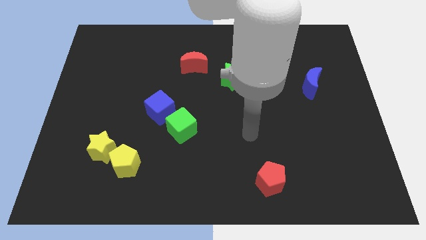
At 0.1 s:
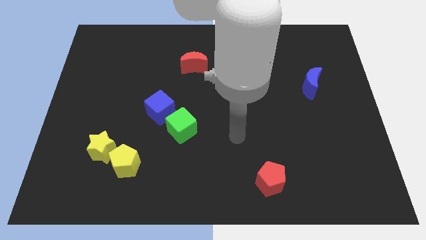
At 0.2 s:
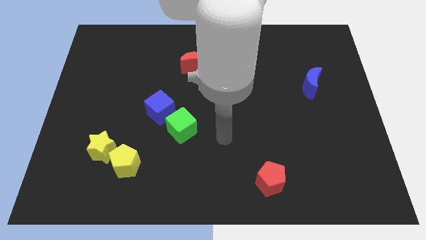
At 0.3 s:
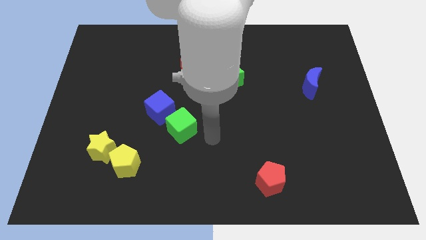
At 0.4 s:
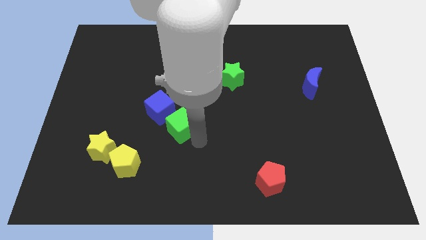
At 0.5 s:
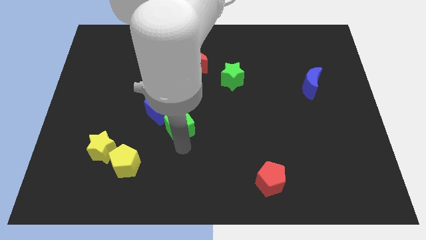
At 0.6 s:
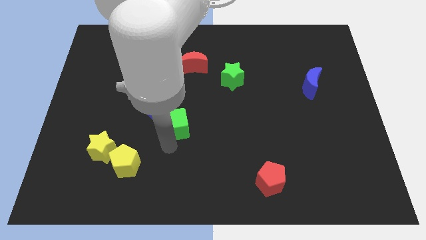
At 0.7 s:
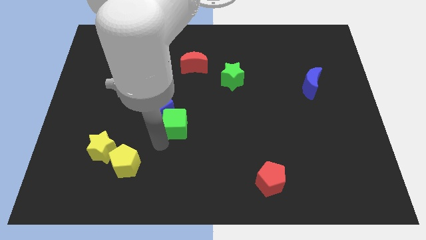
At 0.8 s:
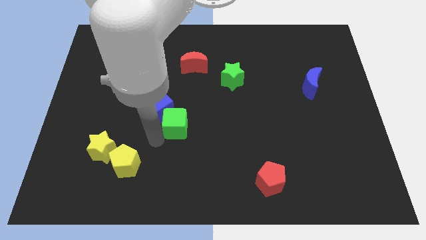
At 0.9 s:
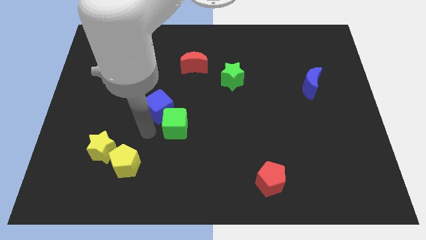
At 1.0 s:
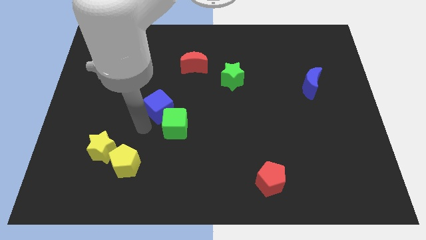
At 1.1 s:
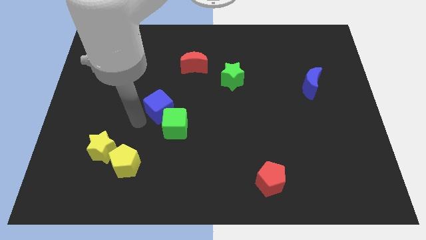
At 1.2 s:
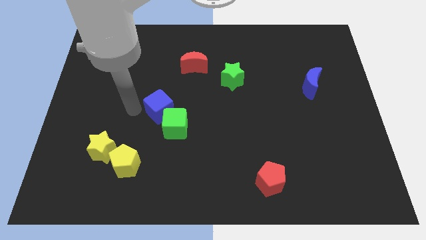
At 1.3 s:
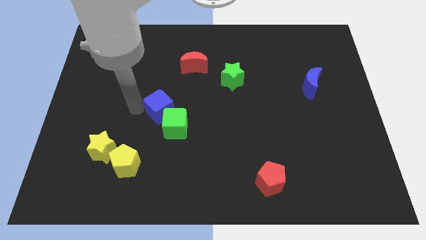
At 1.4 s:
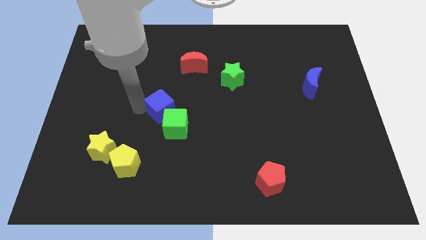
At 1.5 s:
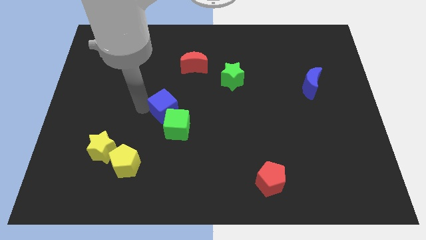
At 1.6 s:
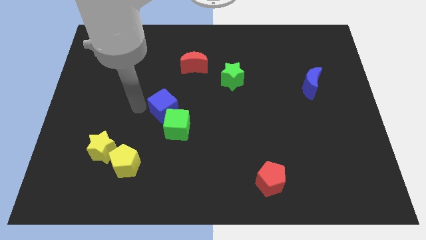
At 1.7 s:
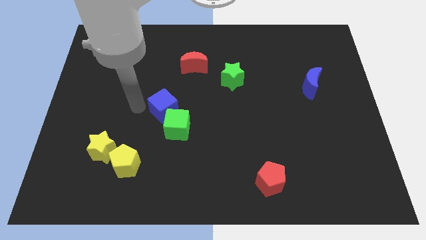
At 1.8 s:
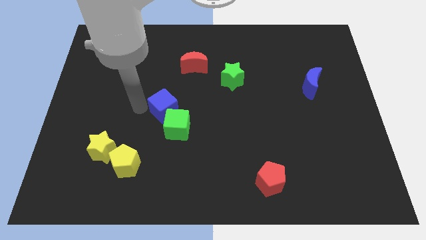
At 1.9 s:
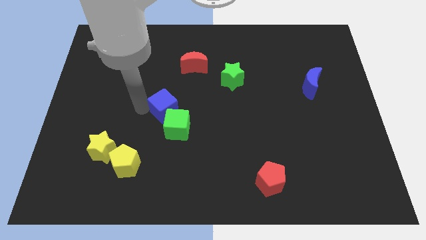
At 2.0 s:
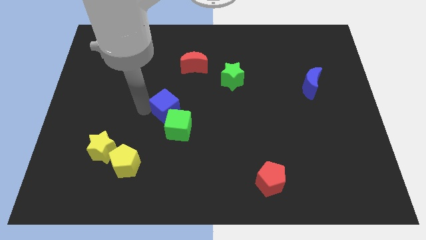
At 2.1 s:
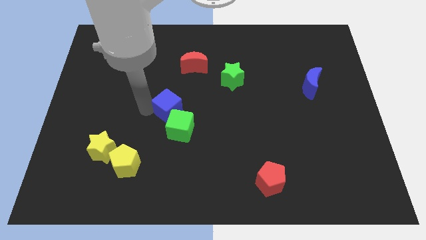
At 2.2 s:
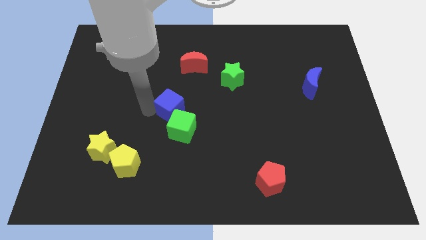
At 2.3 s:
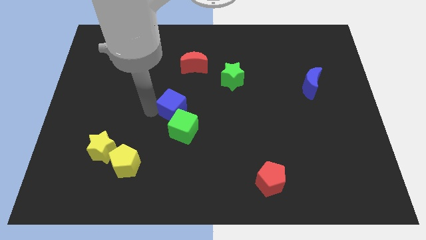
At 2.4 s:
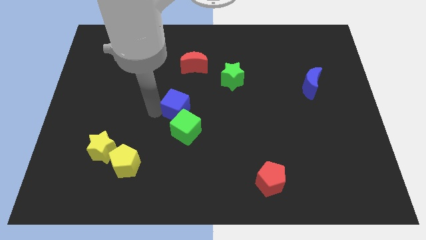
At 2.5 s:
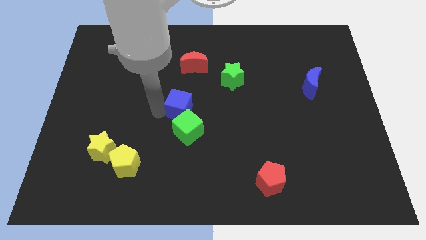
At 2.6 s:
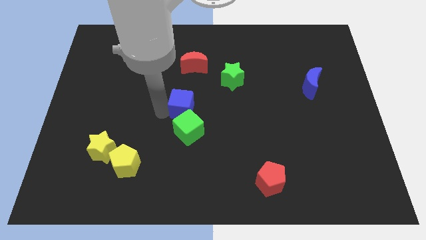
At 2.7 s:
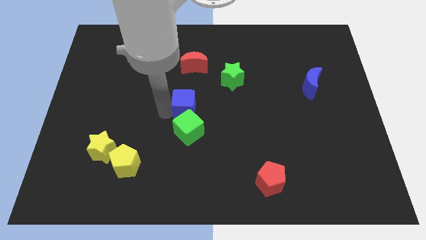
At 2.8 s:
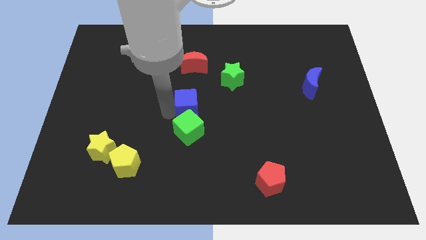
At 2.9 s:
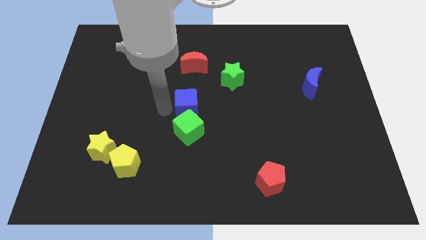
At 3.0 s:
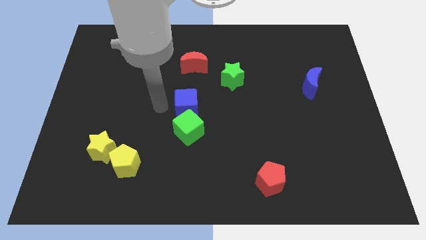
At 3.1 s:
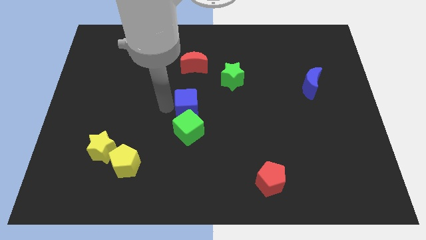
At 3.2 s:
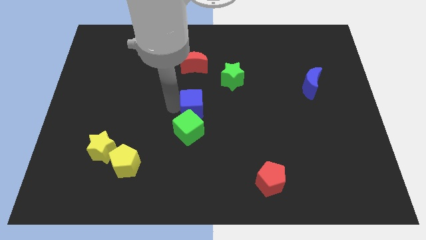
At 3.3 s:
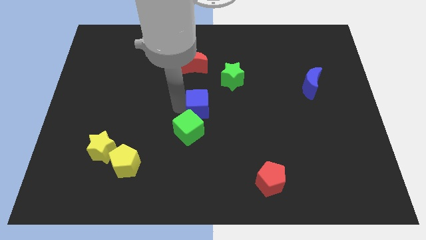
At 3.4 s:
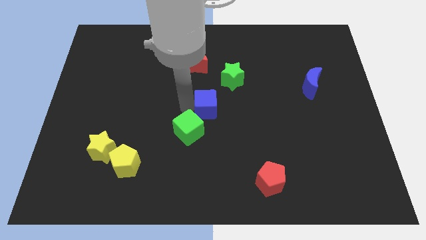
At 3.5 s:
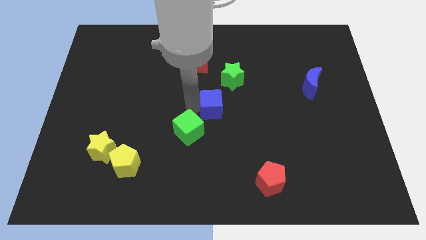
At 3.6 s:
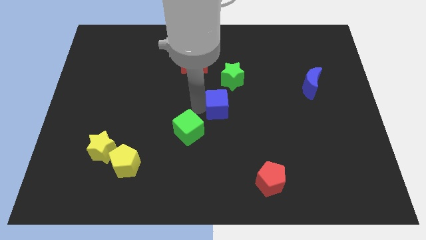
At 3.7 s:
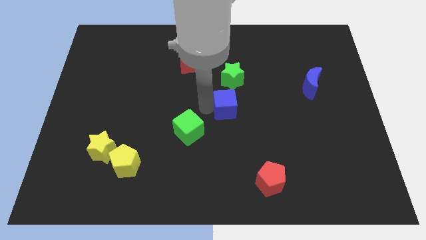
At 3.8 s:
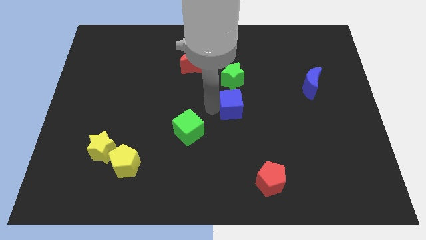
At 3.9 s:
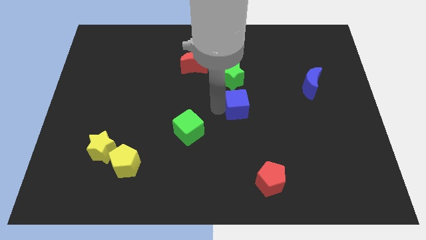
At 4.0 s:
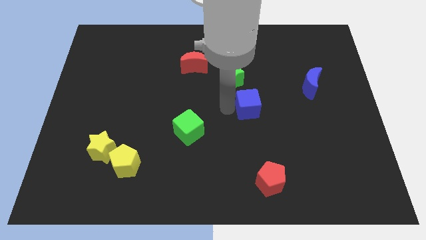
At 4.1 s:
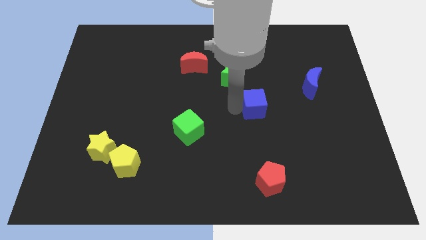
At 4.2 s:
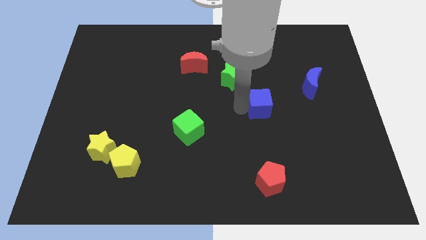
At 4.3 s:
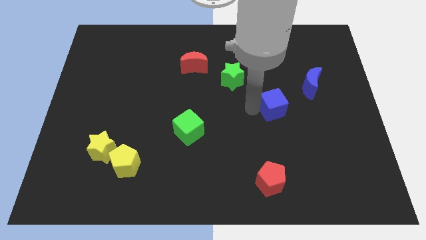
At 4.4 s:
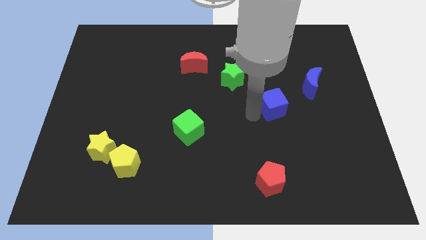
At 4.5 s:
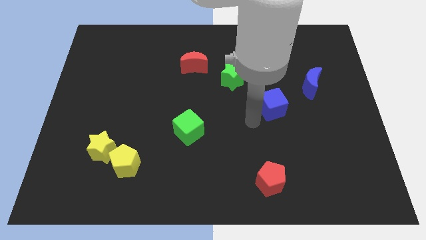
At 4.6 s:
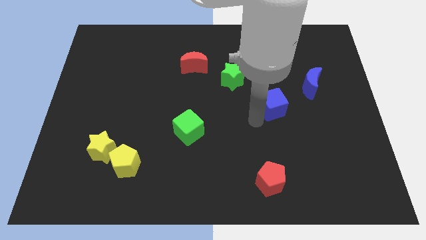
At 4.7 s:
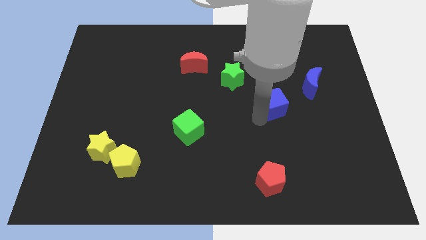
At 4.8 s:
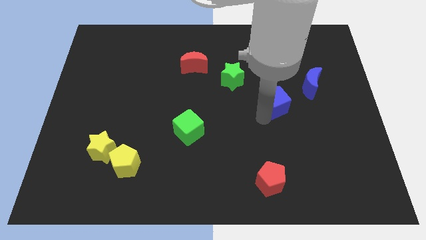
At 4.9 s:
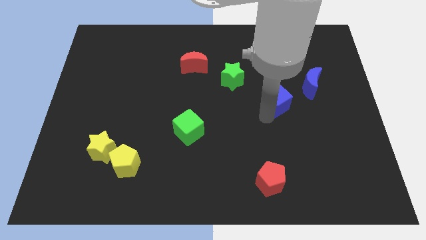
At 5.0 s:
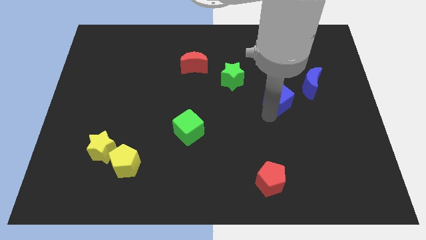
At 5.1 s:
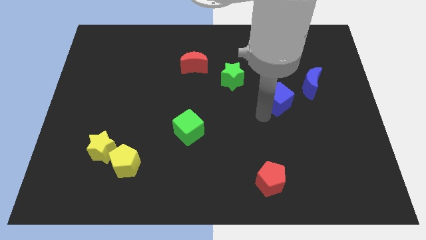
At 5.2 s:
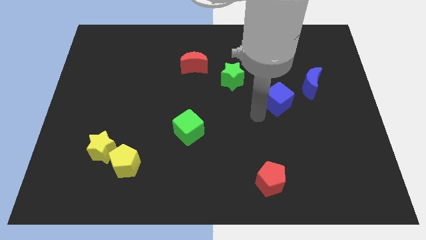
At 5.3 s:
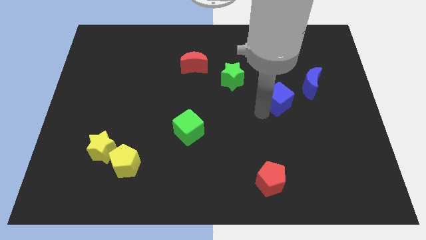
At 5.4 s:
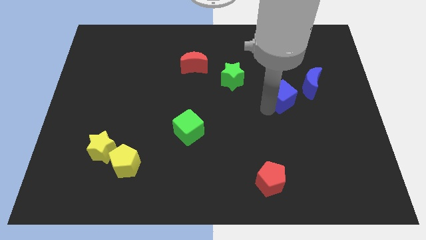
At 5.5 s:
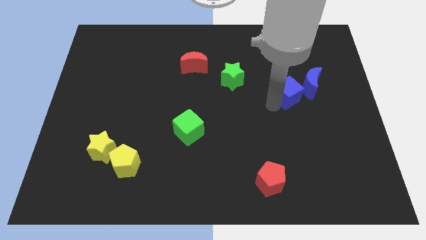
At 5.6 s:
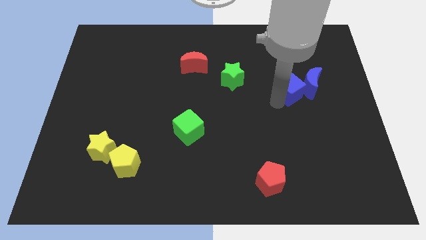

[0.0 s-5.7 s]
put the blue cube to the blue moon

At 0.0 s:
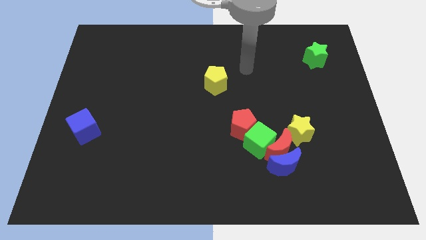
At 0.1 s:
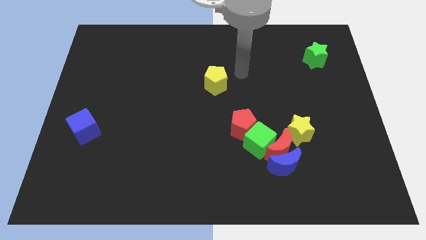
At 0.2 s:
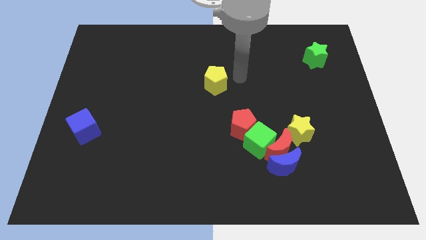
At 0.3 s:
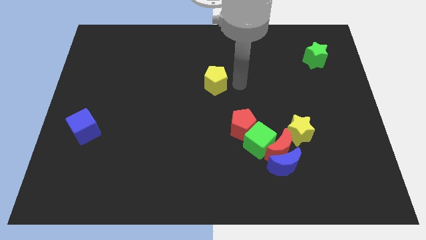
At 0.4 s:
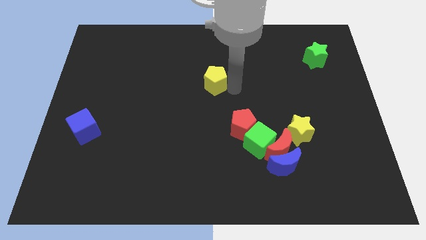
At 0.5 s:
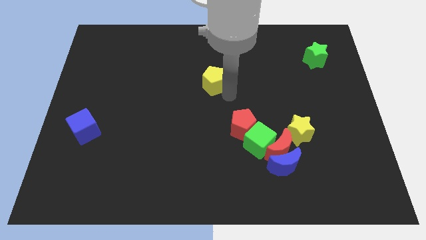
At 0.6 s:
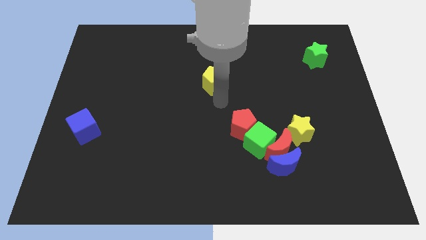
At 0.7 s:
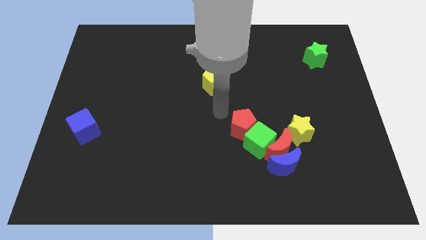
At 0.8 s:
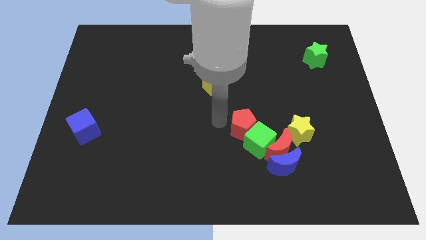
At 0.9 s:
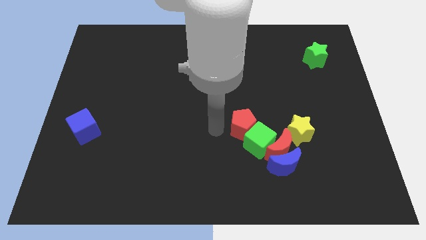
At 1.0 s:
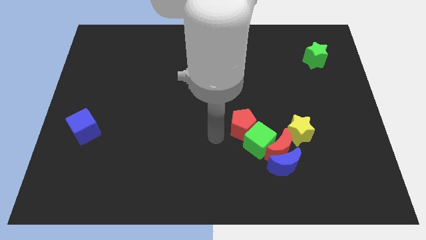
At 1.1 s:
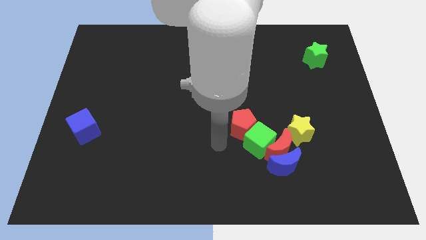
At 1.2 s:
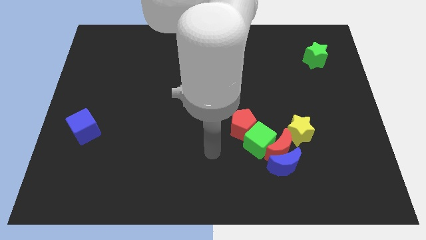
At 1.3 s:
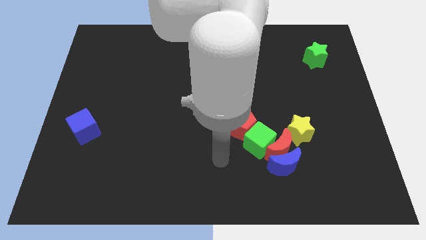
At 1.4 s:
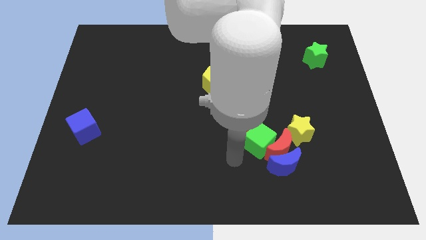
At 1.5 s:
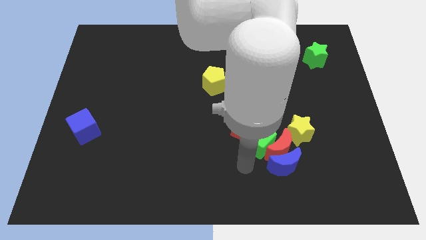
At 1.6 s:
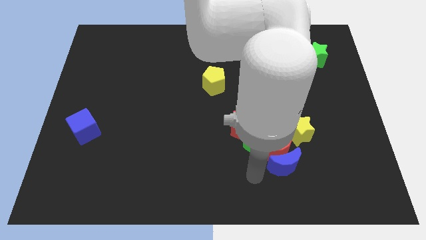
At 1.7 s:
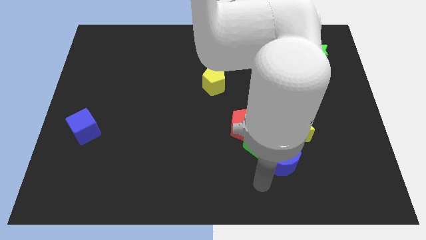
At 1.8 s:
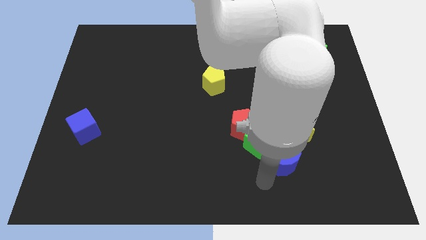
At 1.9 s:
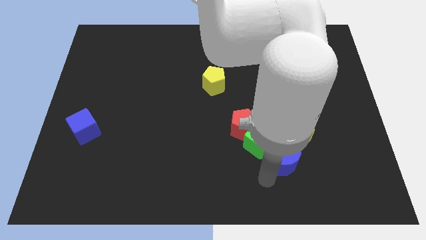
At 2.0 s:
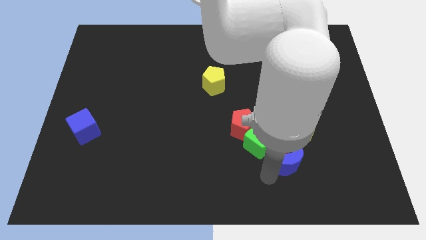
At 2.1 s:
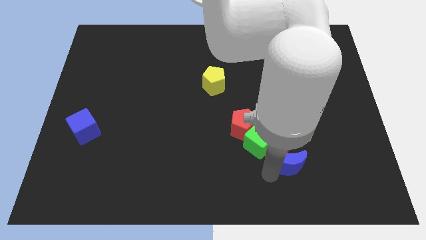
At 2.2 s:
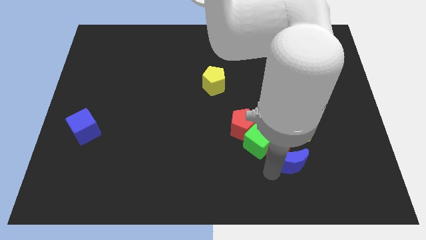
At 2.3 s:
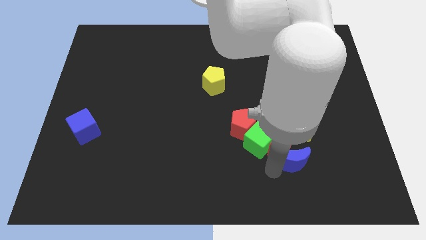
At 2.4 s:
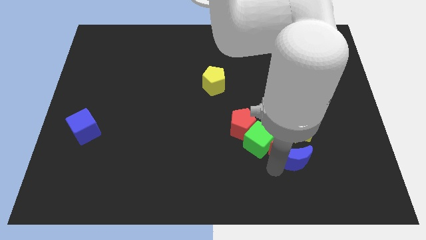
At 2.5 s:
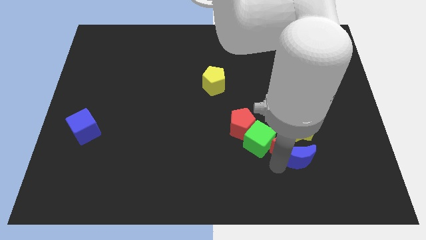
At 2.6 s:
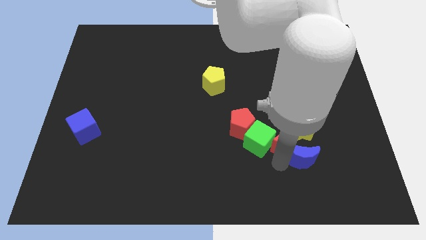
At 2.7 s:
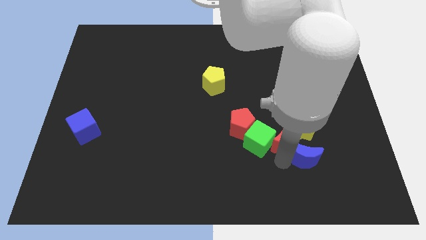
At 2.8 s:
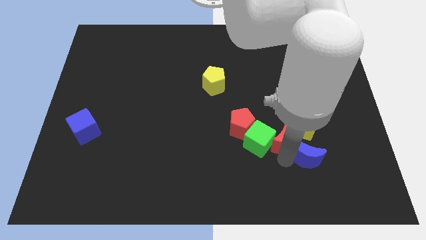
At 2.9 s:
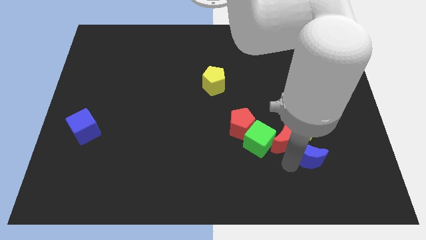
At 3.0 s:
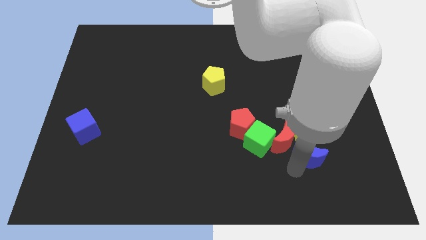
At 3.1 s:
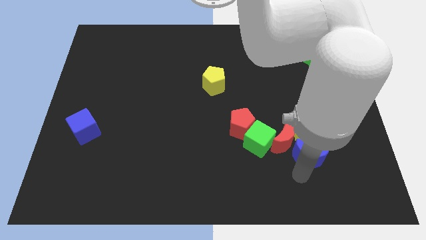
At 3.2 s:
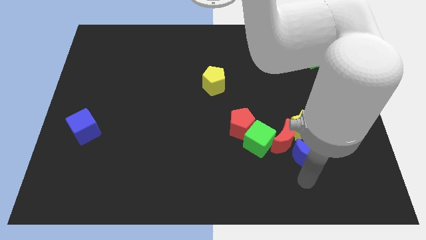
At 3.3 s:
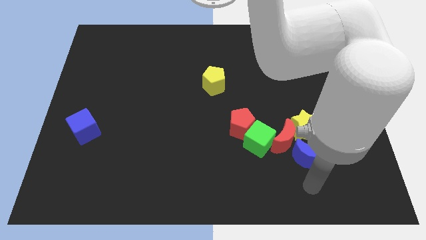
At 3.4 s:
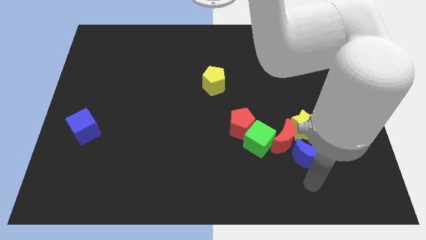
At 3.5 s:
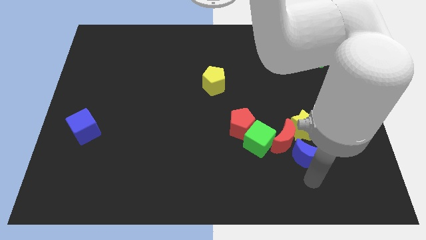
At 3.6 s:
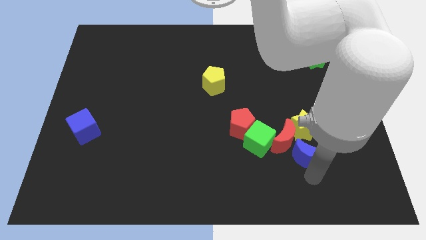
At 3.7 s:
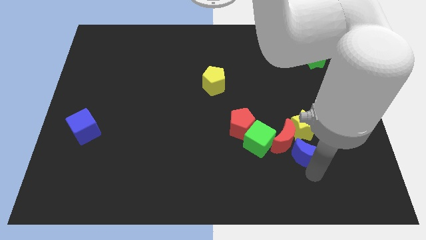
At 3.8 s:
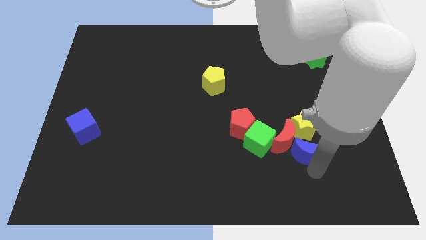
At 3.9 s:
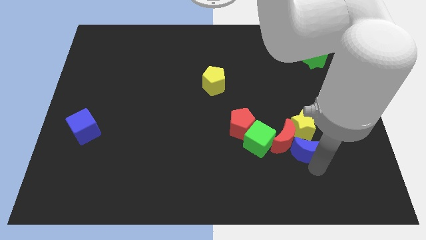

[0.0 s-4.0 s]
push the blue moon close to the yellow star
